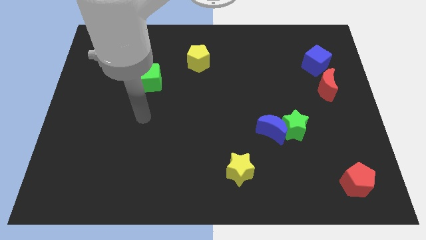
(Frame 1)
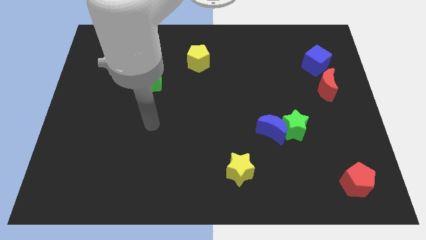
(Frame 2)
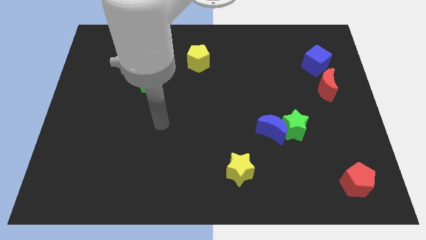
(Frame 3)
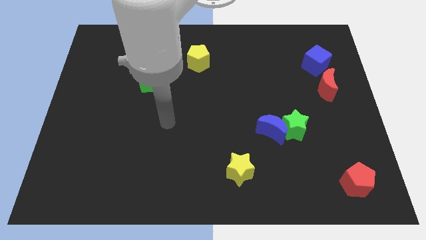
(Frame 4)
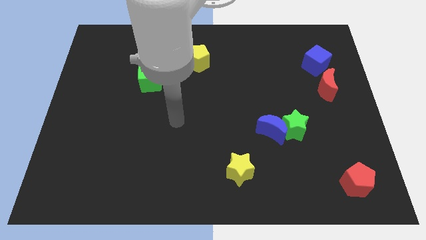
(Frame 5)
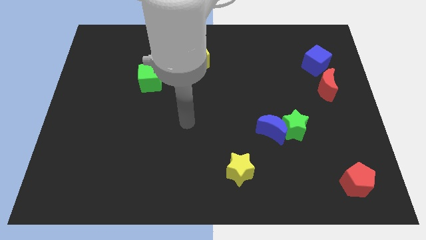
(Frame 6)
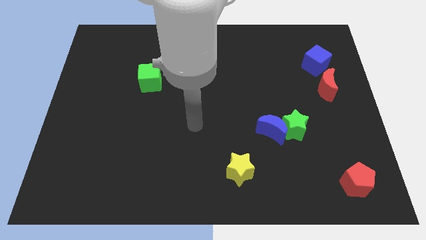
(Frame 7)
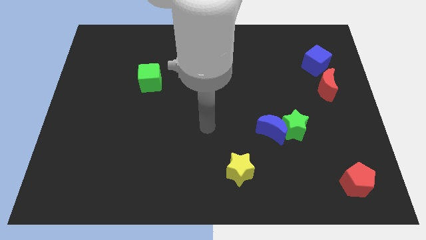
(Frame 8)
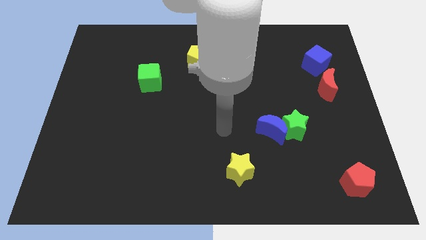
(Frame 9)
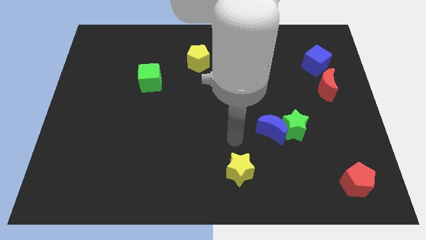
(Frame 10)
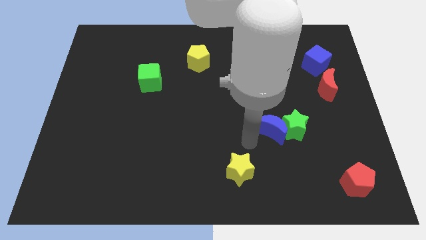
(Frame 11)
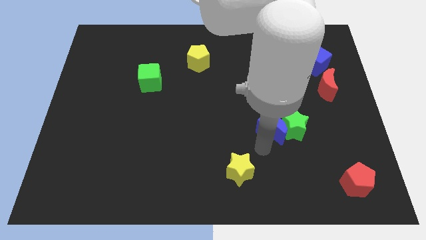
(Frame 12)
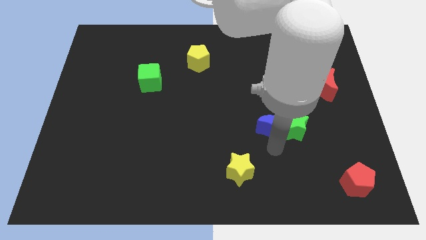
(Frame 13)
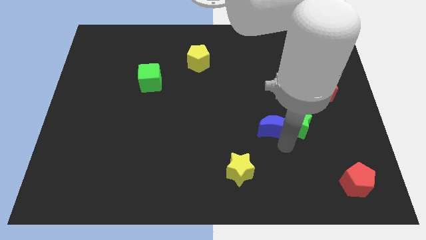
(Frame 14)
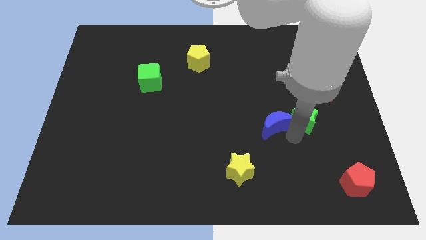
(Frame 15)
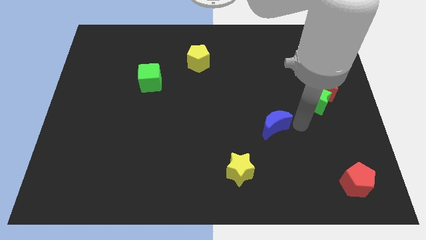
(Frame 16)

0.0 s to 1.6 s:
move the blue moon away from the green star

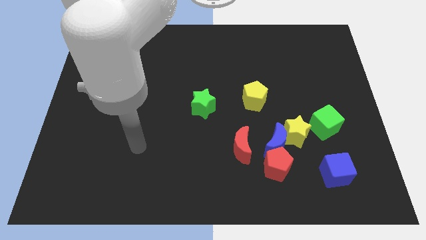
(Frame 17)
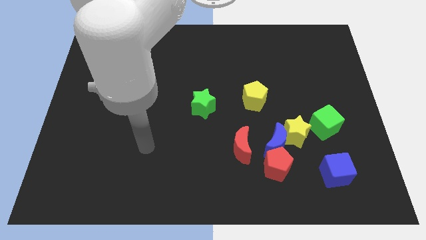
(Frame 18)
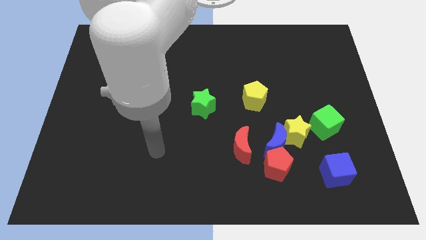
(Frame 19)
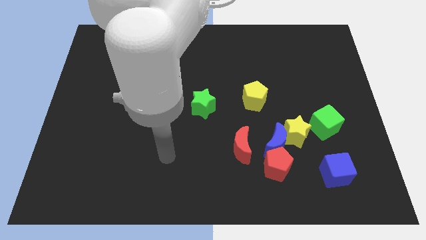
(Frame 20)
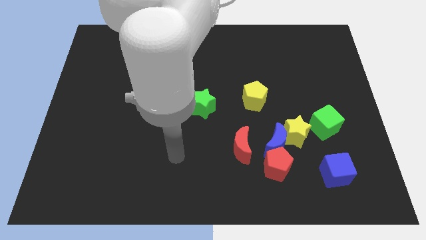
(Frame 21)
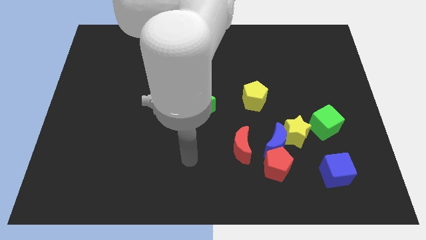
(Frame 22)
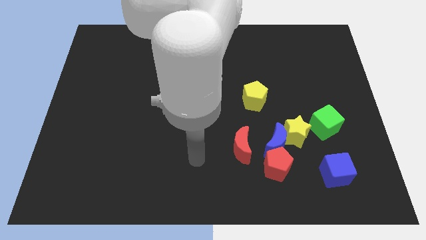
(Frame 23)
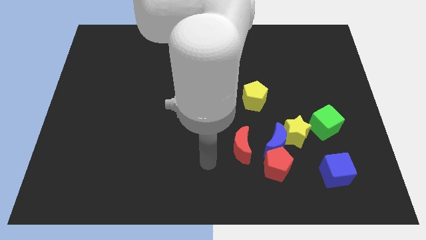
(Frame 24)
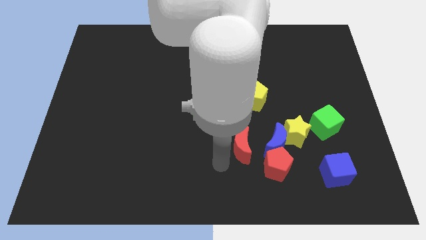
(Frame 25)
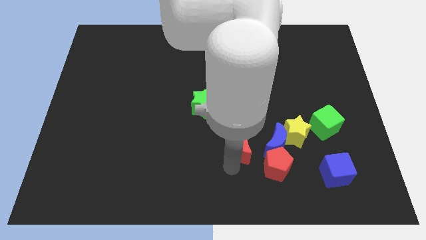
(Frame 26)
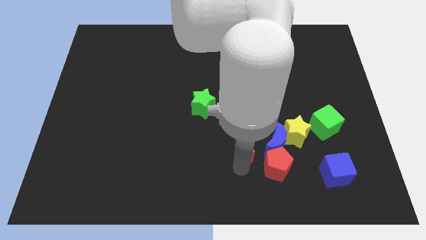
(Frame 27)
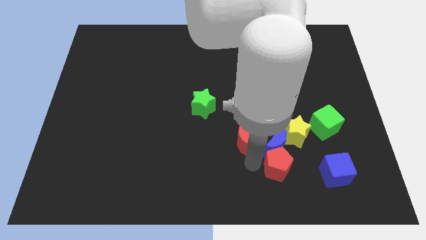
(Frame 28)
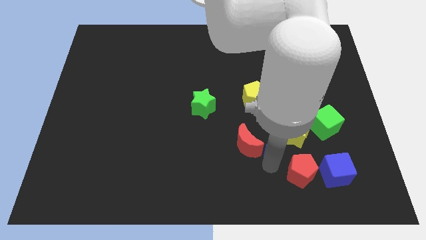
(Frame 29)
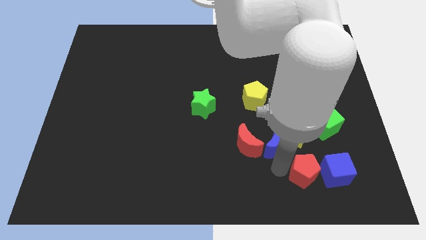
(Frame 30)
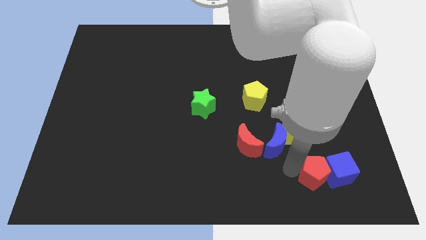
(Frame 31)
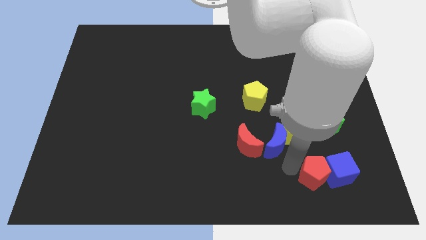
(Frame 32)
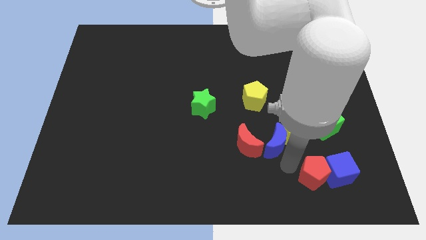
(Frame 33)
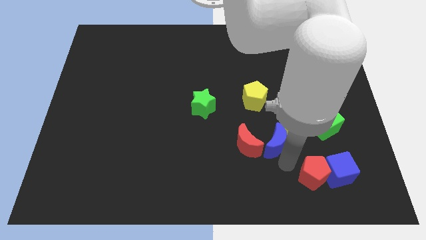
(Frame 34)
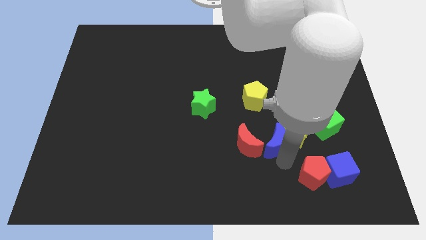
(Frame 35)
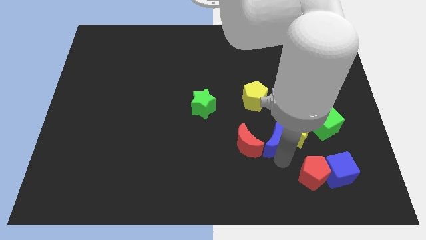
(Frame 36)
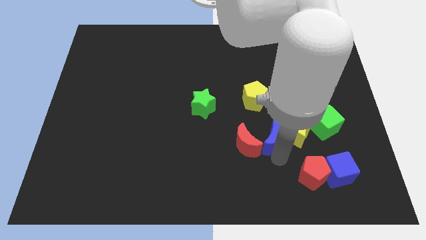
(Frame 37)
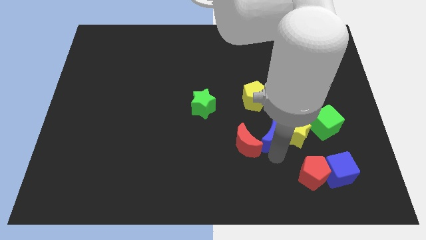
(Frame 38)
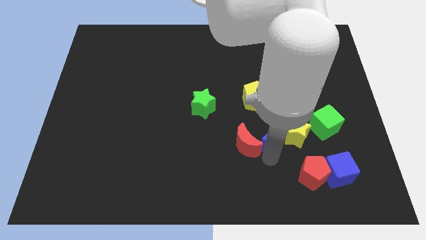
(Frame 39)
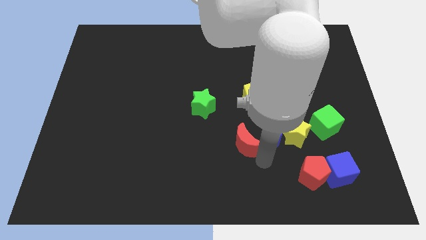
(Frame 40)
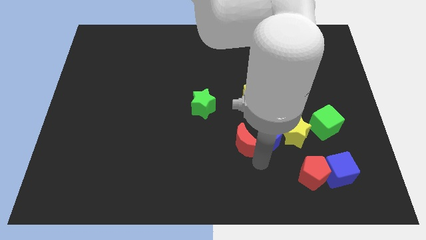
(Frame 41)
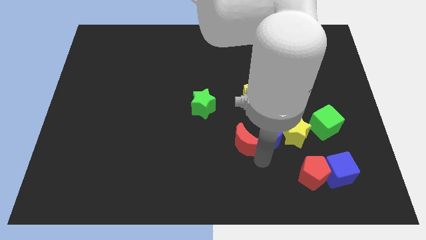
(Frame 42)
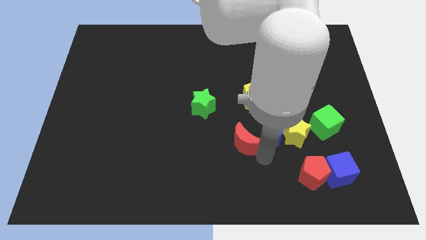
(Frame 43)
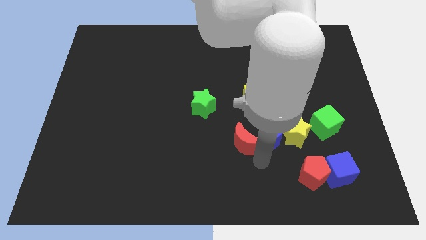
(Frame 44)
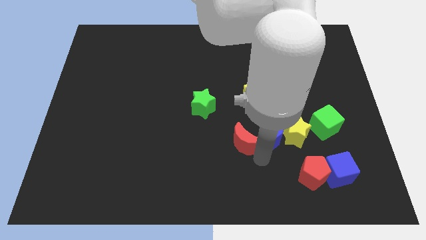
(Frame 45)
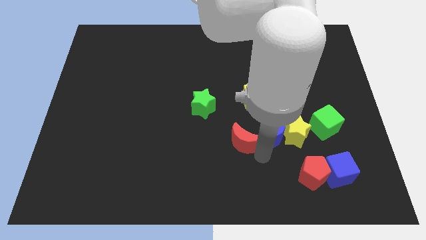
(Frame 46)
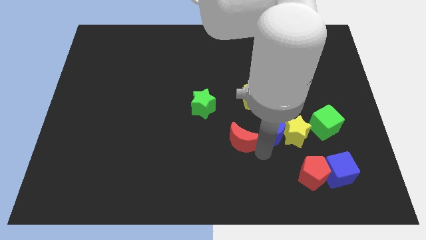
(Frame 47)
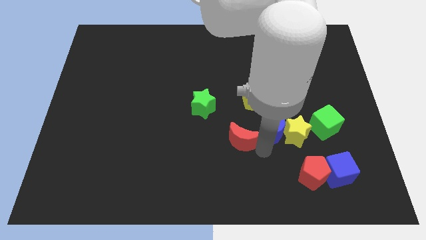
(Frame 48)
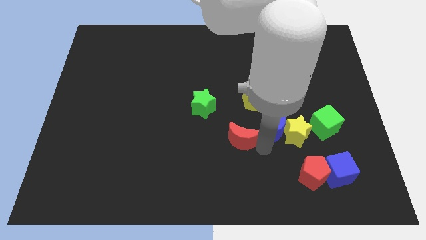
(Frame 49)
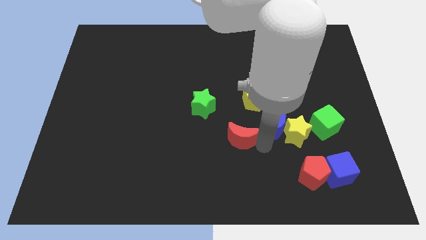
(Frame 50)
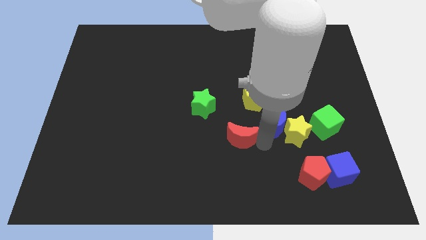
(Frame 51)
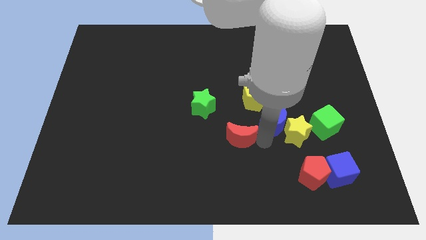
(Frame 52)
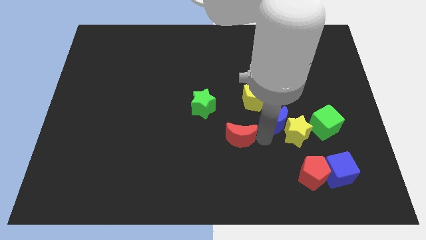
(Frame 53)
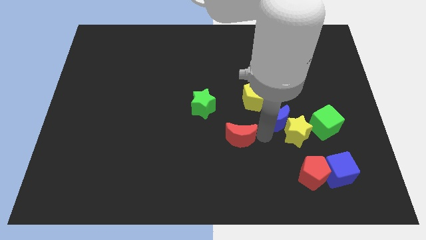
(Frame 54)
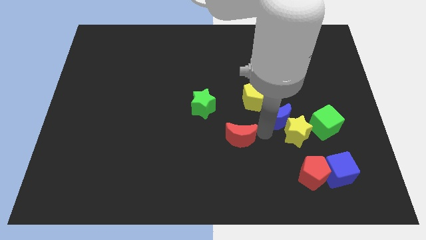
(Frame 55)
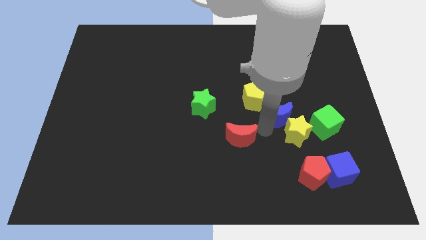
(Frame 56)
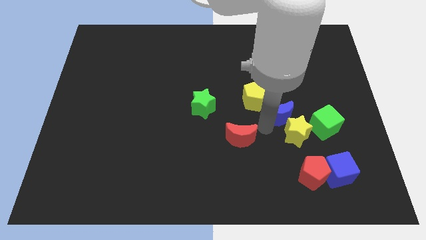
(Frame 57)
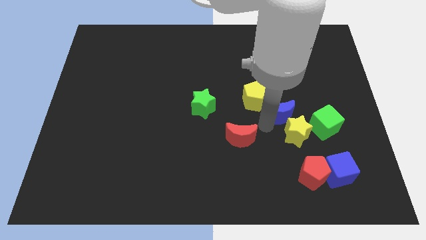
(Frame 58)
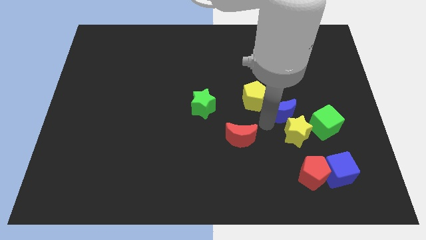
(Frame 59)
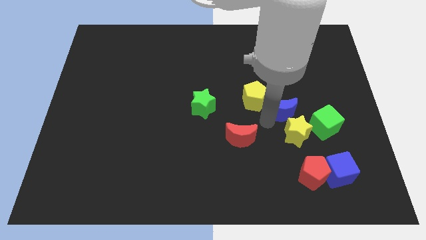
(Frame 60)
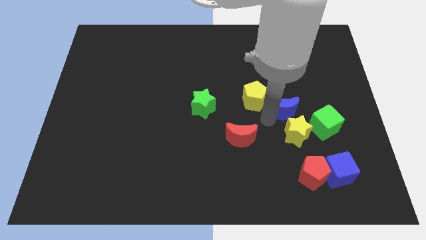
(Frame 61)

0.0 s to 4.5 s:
pull the blue moon apart from the red pentagon, yellow star, and red moon

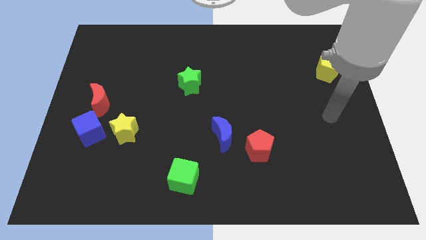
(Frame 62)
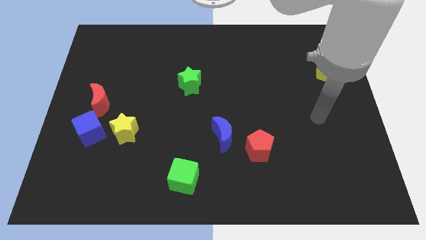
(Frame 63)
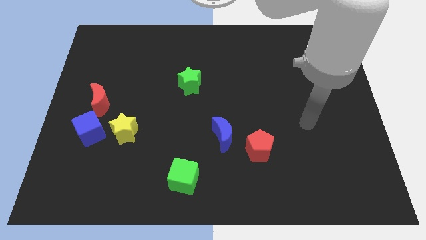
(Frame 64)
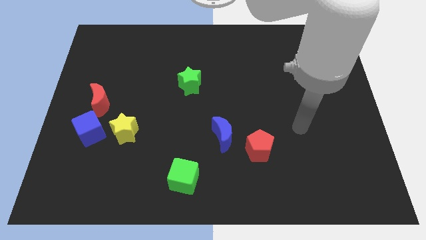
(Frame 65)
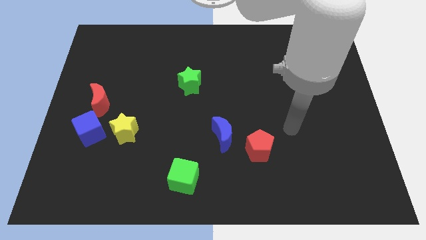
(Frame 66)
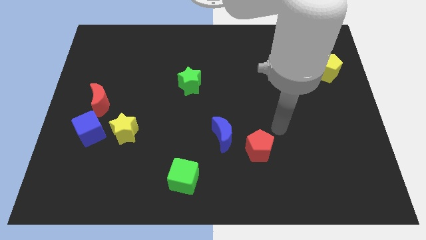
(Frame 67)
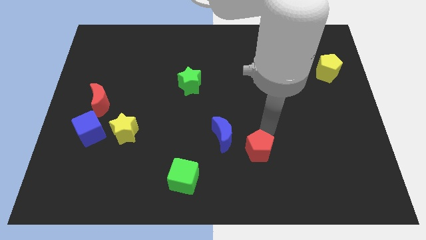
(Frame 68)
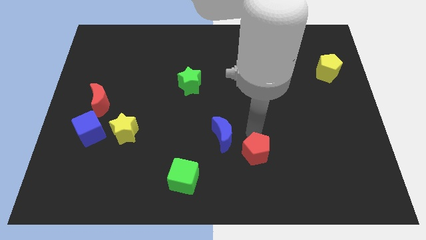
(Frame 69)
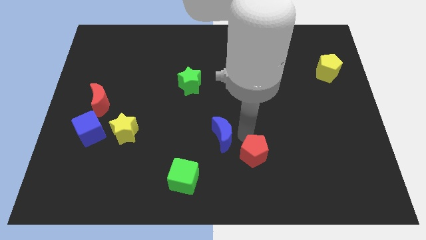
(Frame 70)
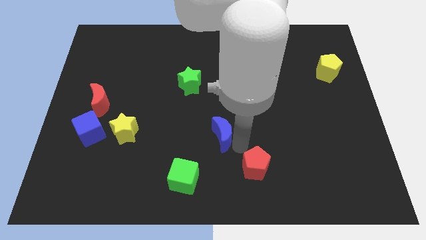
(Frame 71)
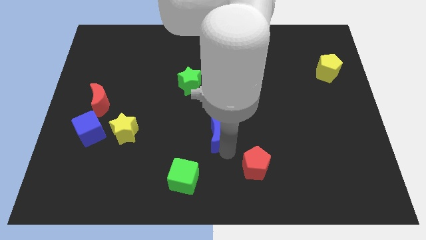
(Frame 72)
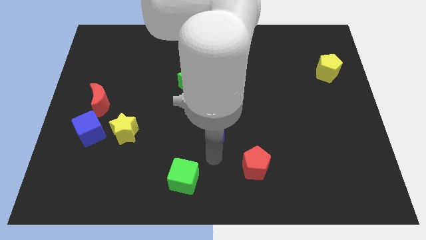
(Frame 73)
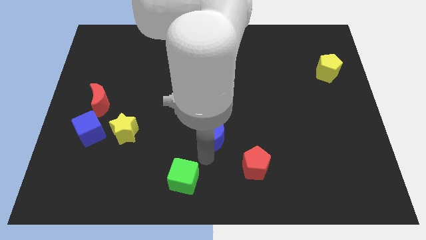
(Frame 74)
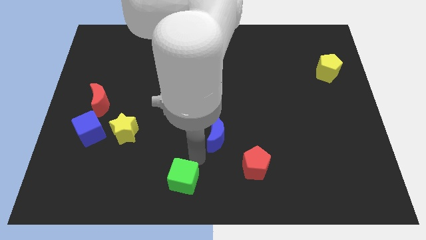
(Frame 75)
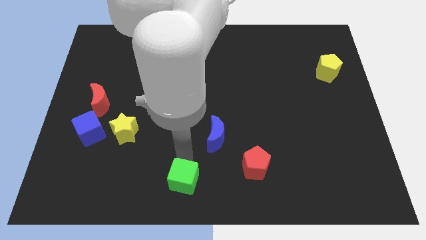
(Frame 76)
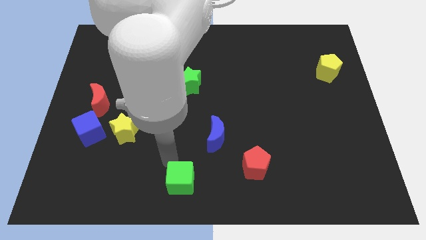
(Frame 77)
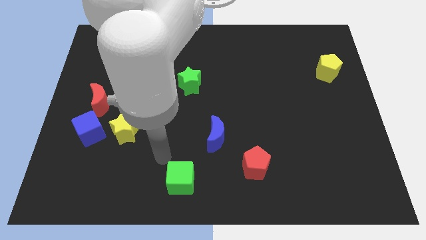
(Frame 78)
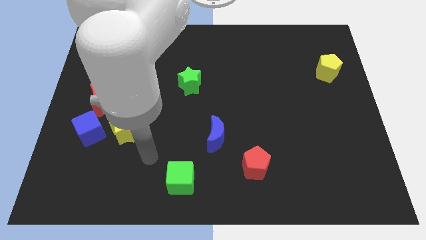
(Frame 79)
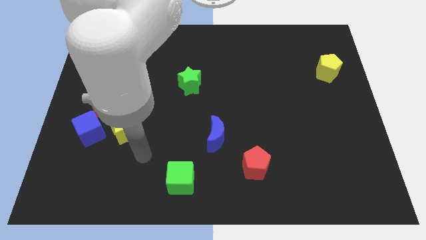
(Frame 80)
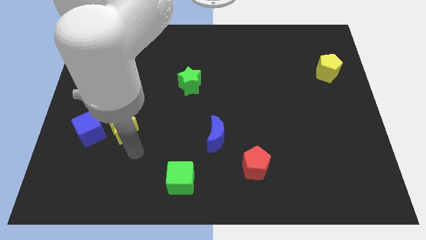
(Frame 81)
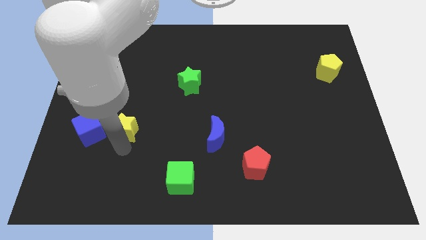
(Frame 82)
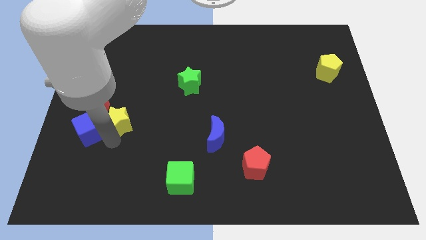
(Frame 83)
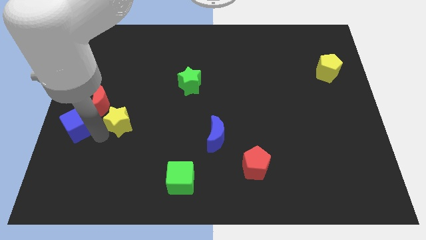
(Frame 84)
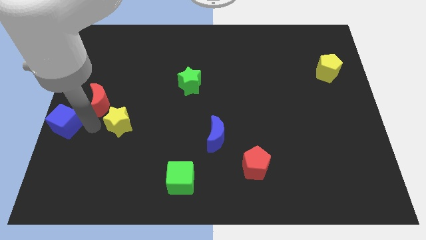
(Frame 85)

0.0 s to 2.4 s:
separate the yellow star from the blue cube

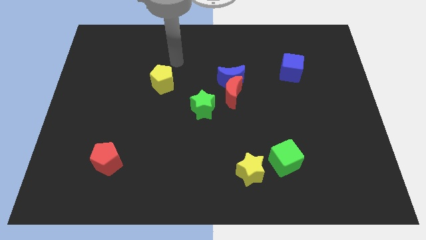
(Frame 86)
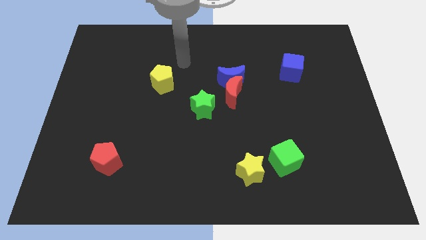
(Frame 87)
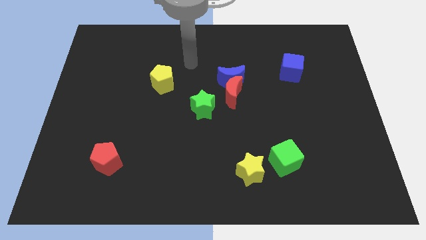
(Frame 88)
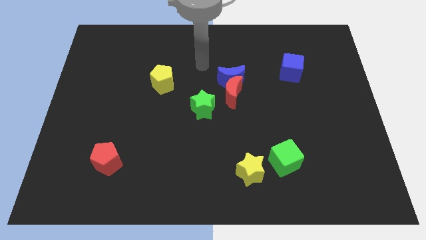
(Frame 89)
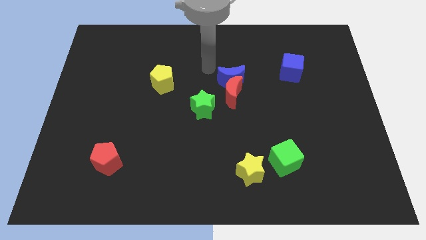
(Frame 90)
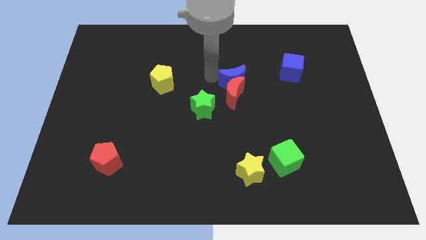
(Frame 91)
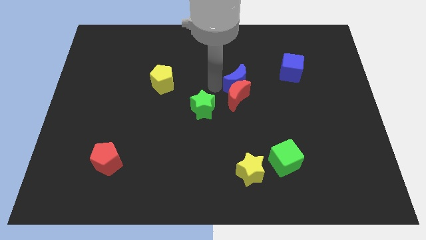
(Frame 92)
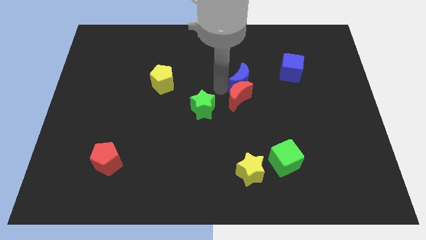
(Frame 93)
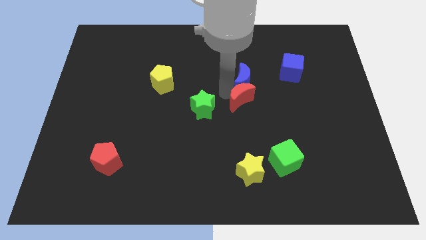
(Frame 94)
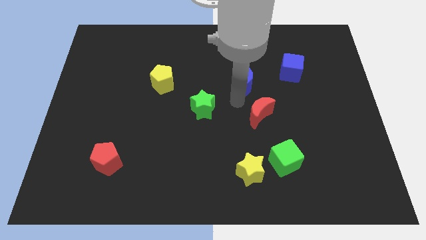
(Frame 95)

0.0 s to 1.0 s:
pull the blue moon apart from the red moon
